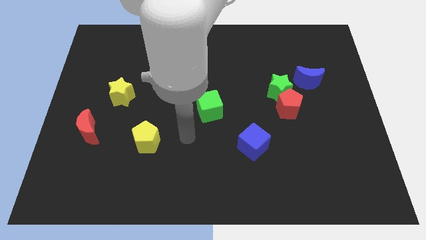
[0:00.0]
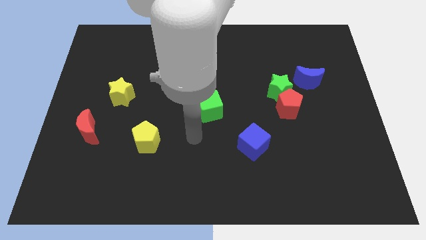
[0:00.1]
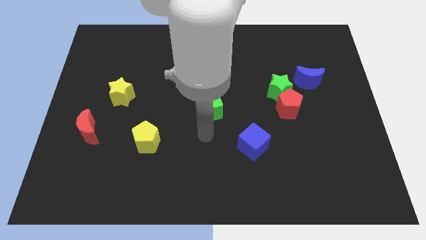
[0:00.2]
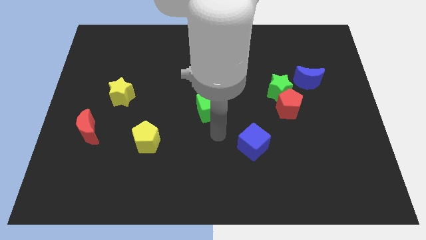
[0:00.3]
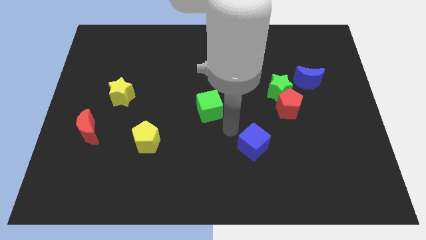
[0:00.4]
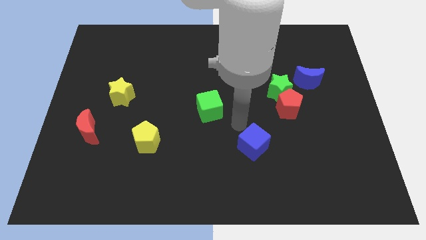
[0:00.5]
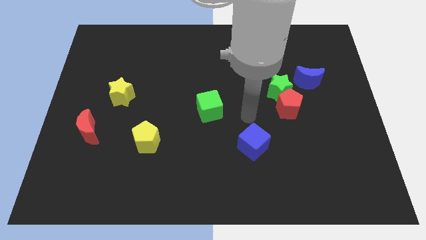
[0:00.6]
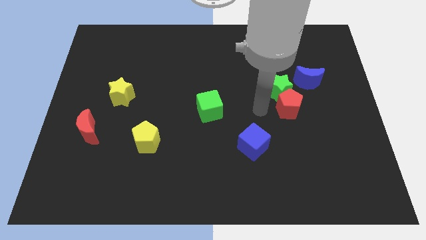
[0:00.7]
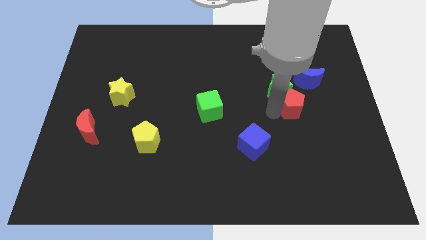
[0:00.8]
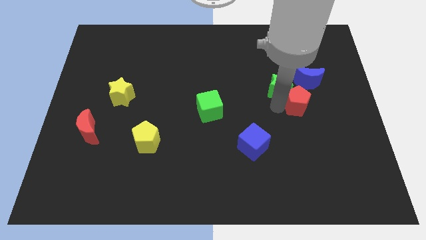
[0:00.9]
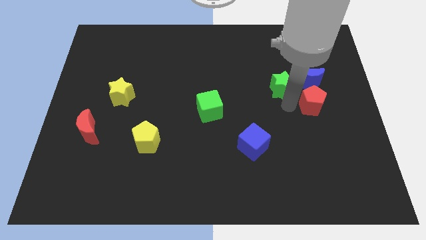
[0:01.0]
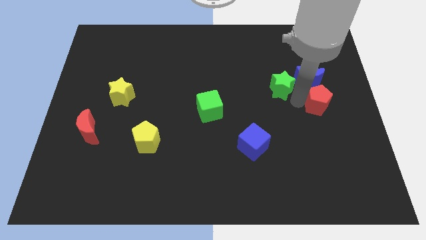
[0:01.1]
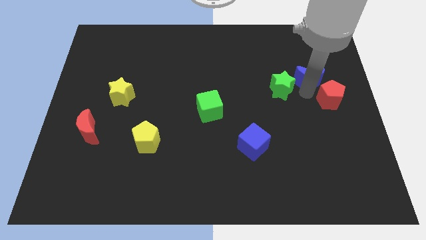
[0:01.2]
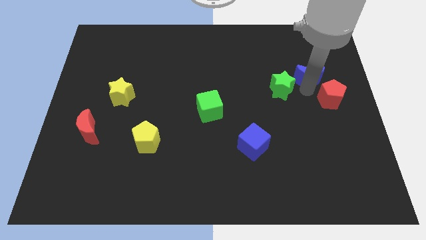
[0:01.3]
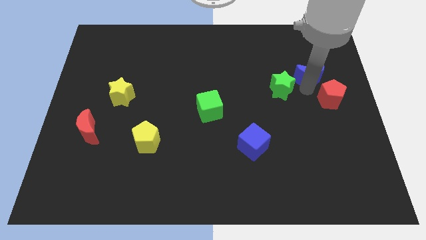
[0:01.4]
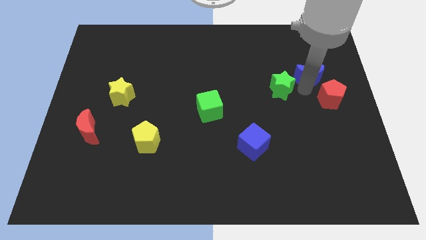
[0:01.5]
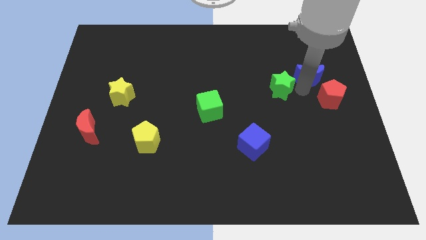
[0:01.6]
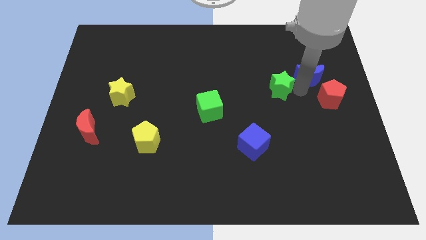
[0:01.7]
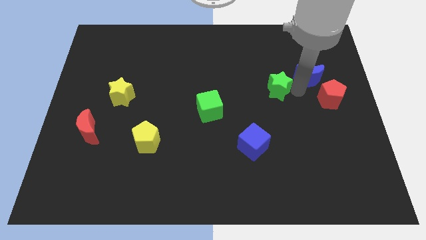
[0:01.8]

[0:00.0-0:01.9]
pull the green star apart from the red pentagon and blue moon

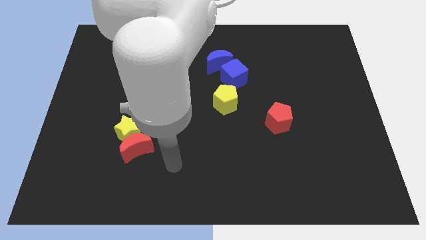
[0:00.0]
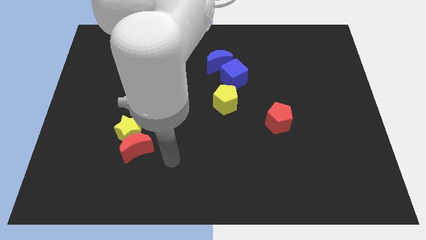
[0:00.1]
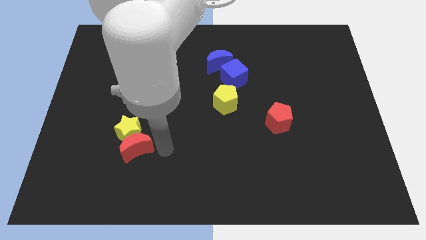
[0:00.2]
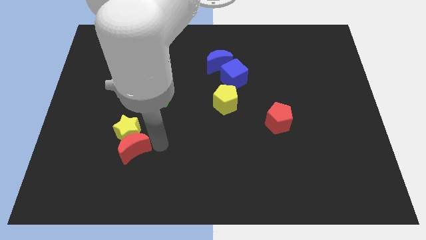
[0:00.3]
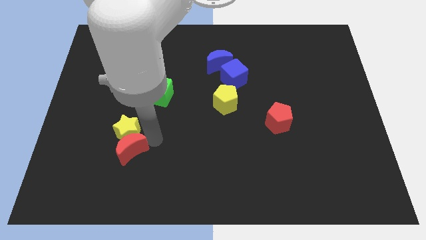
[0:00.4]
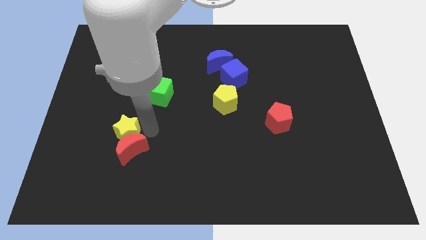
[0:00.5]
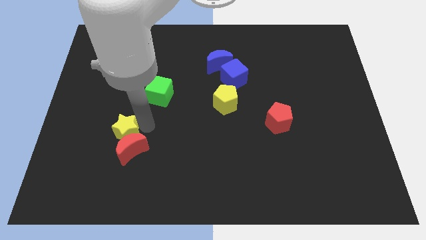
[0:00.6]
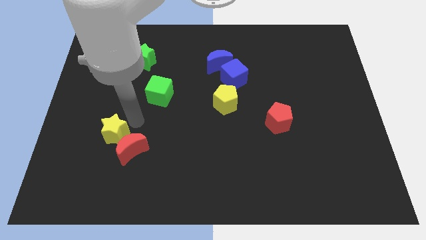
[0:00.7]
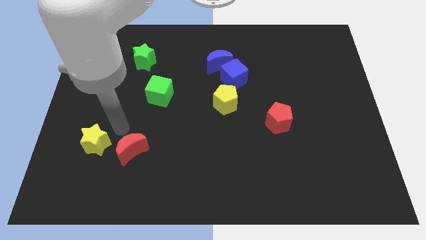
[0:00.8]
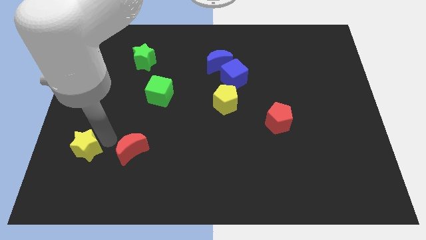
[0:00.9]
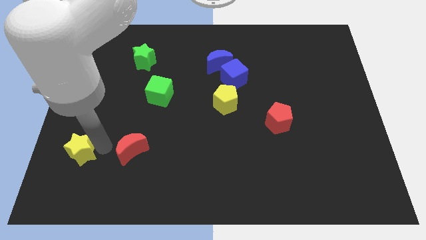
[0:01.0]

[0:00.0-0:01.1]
pull the red moon apart from the yellow star

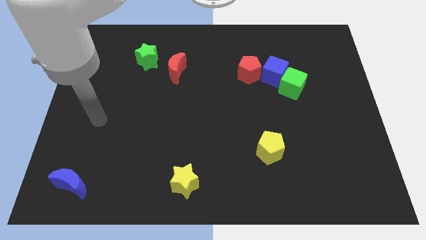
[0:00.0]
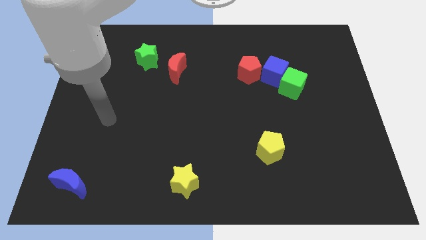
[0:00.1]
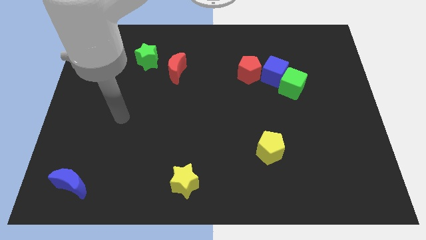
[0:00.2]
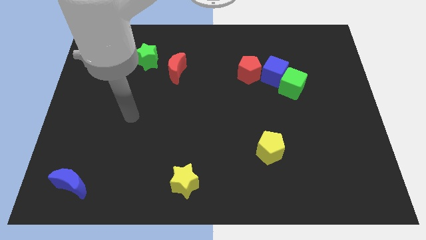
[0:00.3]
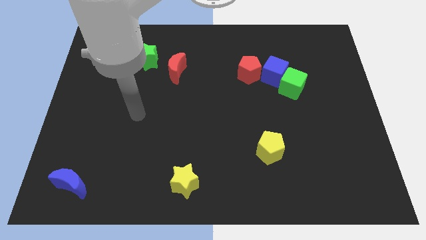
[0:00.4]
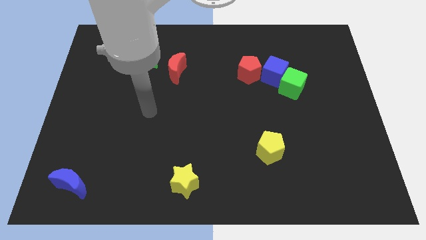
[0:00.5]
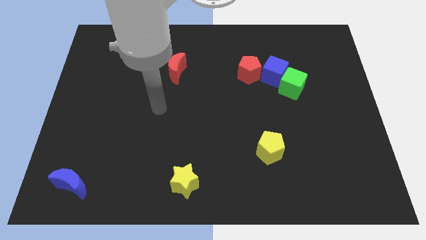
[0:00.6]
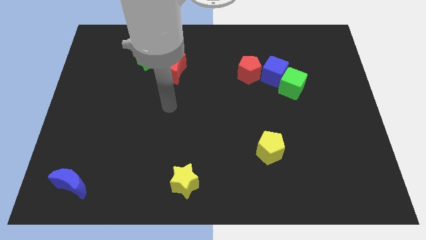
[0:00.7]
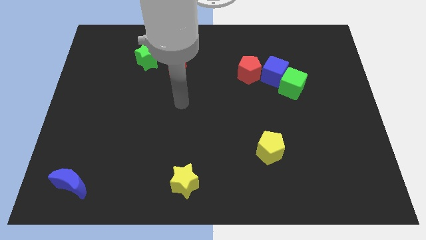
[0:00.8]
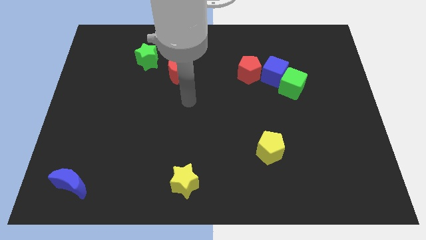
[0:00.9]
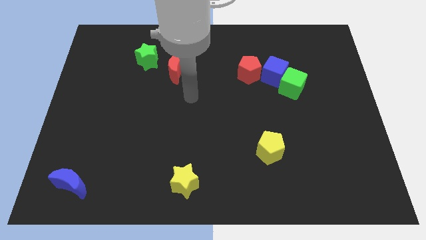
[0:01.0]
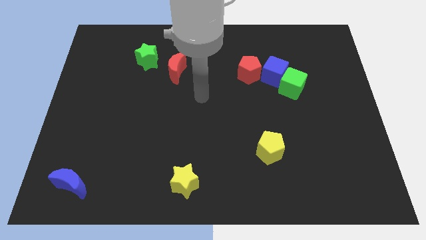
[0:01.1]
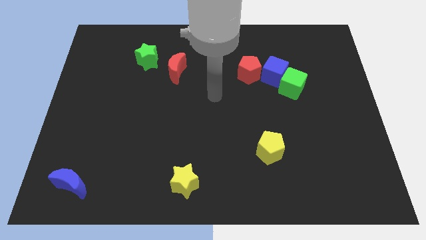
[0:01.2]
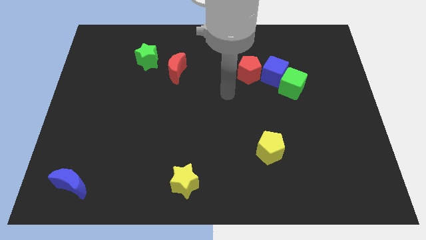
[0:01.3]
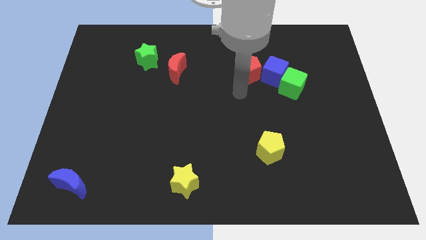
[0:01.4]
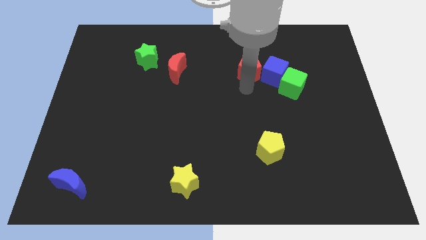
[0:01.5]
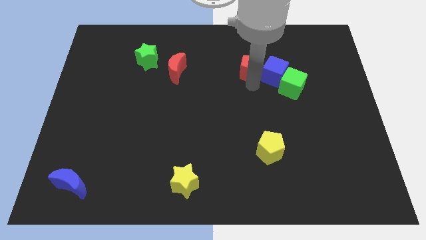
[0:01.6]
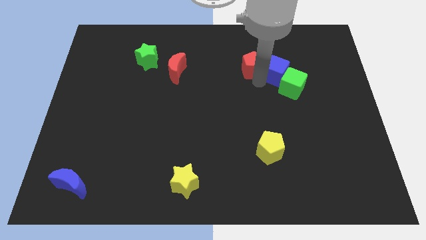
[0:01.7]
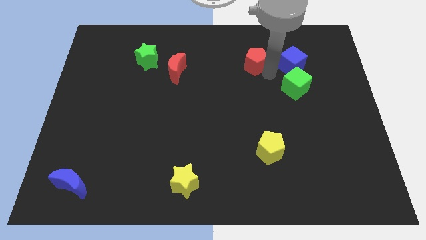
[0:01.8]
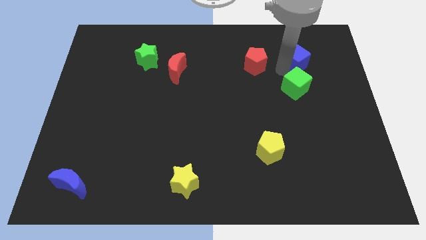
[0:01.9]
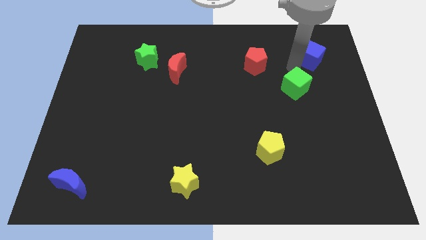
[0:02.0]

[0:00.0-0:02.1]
pull the green cube apart from the blue cube

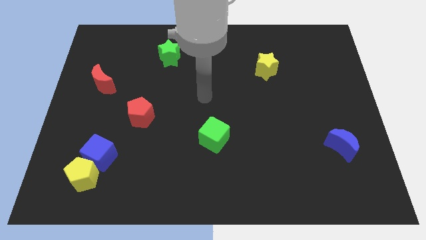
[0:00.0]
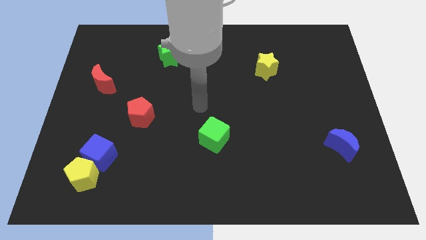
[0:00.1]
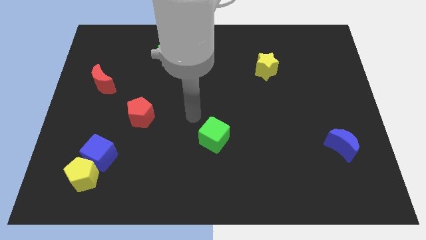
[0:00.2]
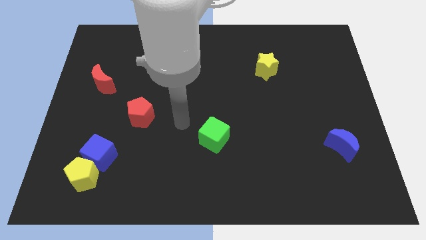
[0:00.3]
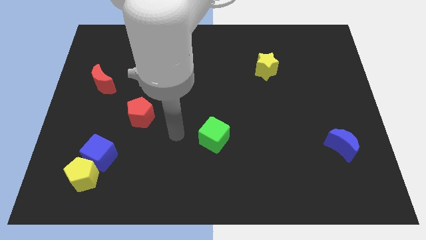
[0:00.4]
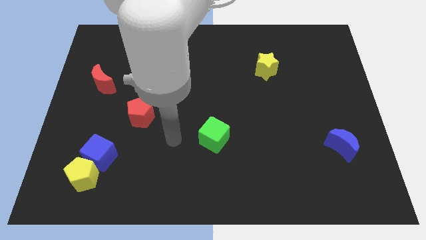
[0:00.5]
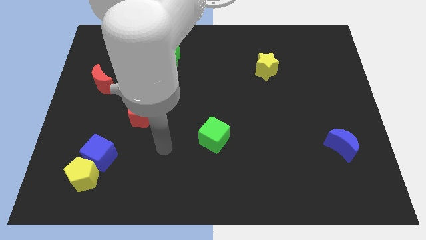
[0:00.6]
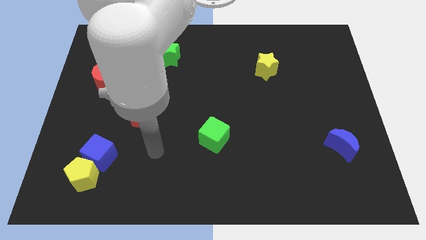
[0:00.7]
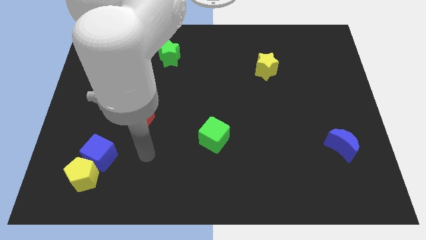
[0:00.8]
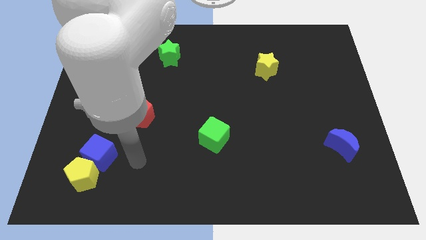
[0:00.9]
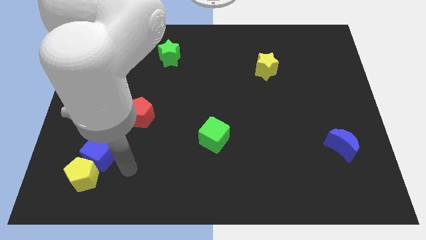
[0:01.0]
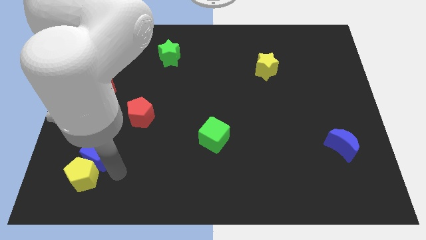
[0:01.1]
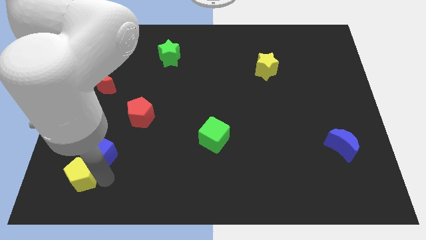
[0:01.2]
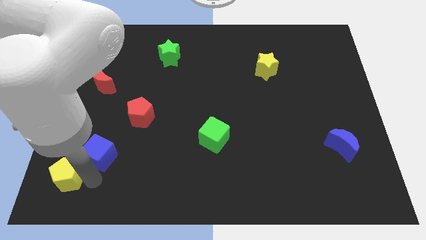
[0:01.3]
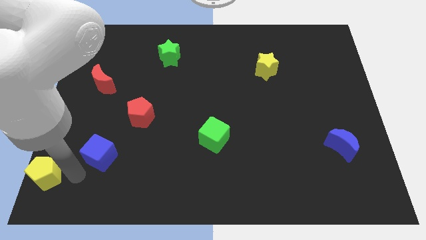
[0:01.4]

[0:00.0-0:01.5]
pull the blue cube apart from the yellow pentagon

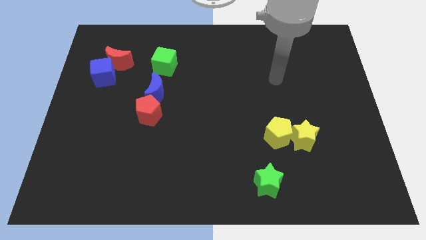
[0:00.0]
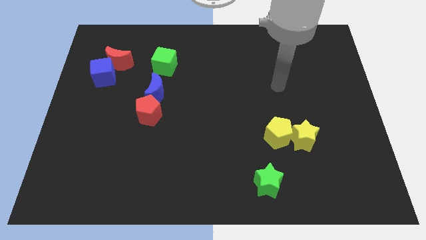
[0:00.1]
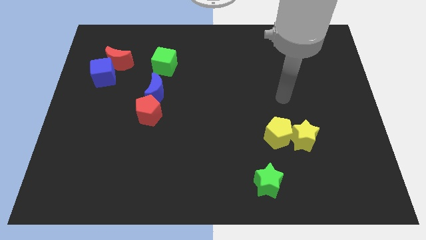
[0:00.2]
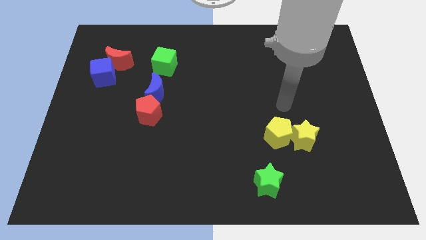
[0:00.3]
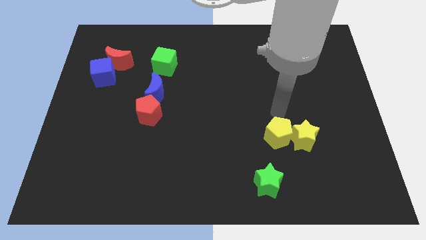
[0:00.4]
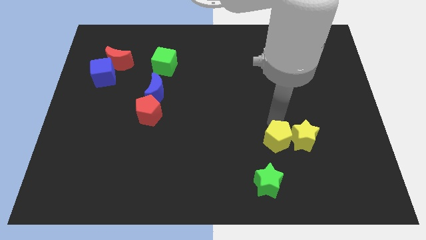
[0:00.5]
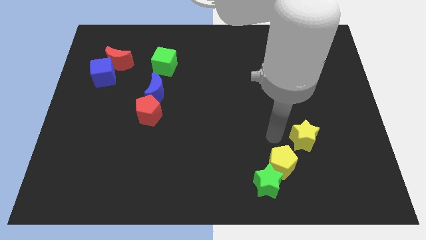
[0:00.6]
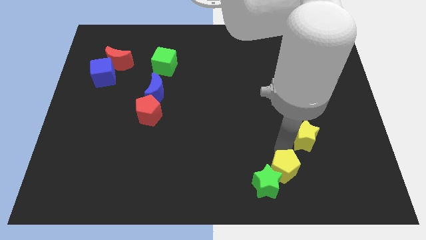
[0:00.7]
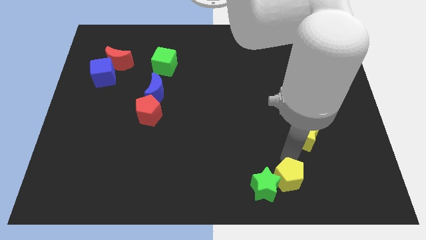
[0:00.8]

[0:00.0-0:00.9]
move the yellow star away from the yellow pentagon

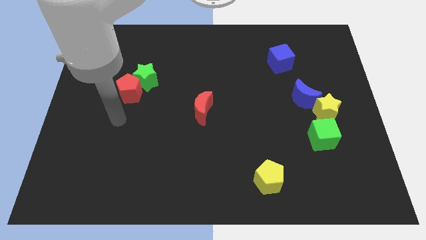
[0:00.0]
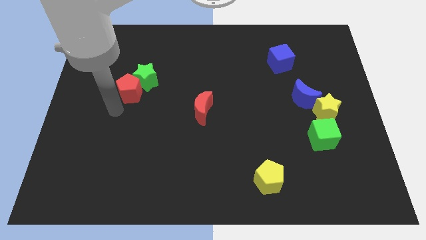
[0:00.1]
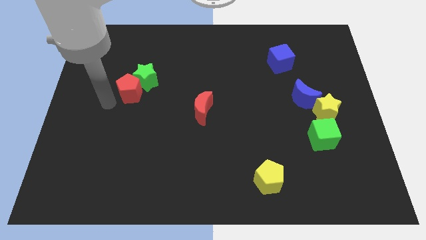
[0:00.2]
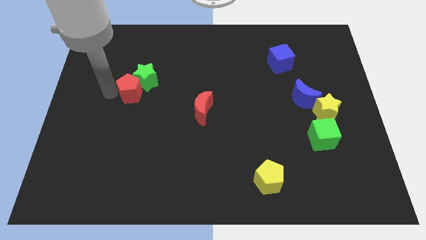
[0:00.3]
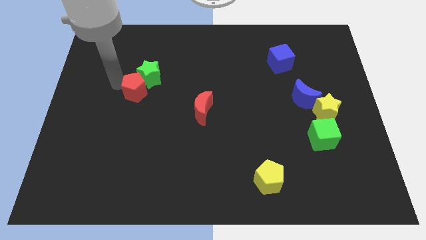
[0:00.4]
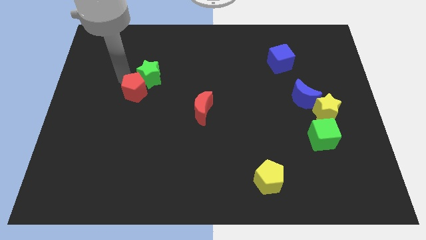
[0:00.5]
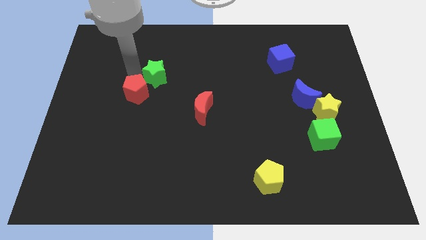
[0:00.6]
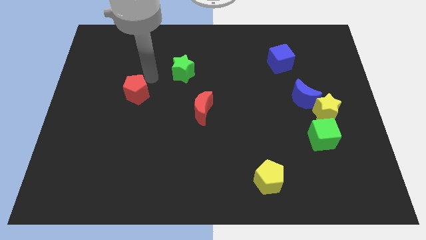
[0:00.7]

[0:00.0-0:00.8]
separate the red pentagon from the green star

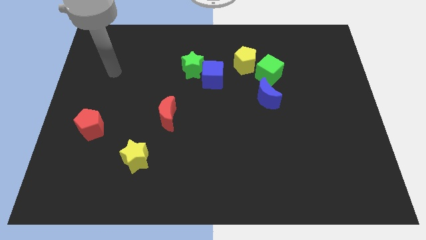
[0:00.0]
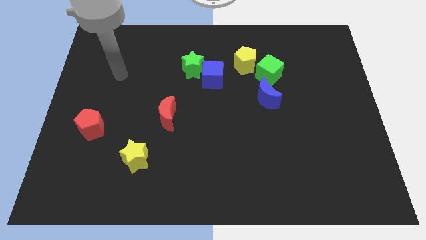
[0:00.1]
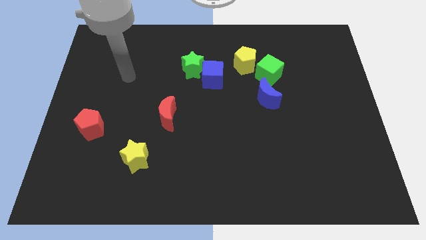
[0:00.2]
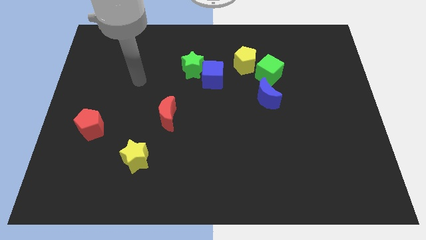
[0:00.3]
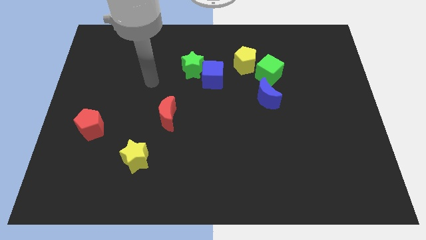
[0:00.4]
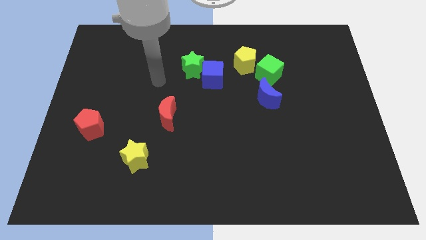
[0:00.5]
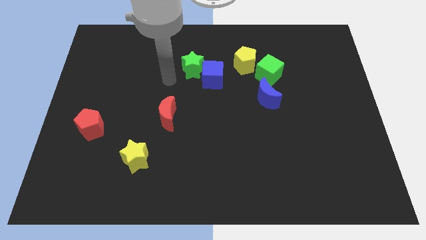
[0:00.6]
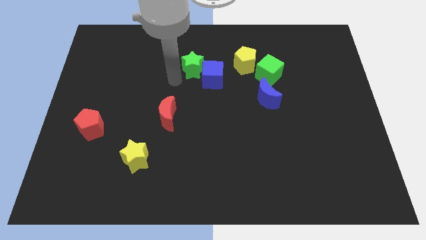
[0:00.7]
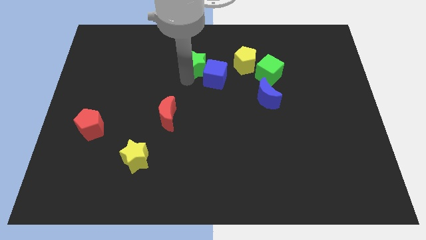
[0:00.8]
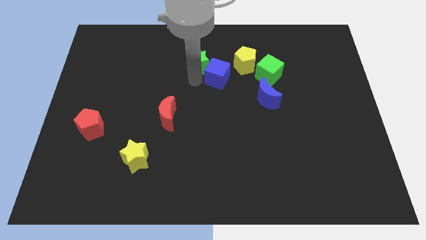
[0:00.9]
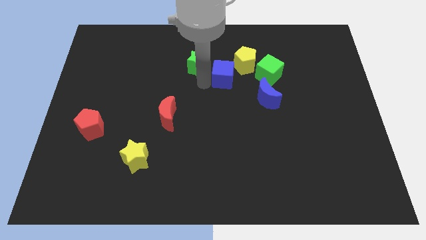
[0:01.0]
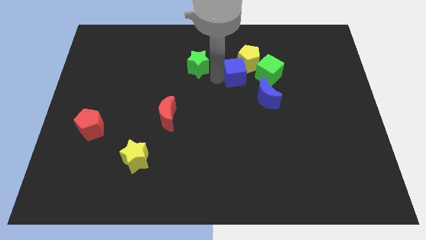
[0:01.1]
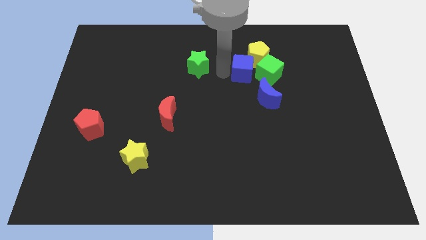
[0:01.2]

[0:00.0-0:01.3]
separate the green star from the blue cube
